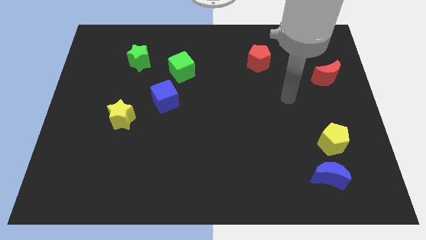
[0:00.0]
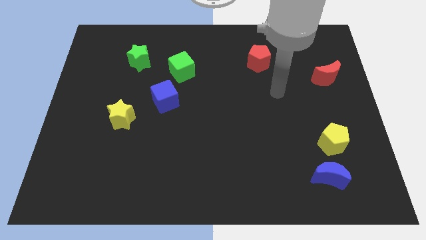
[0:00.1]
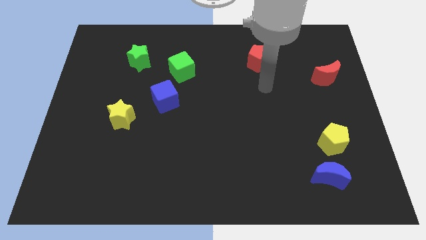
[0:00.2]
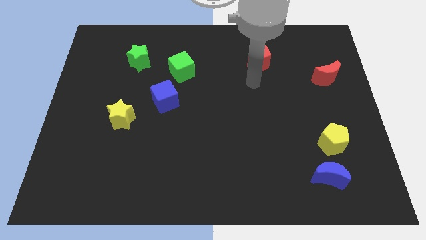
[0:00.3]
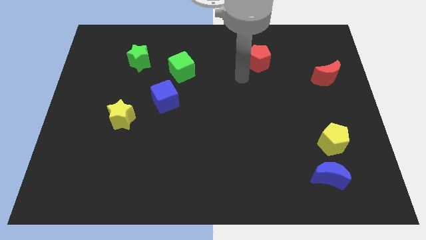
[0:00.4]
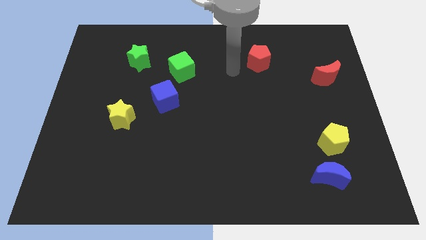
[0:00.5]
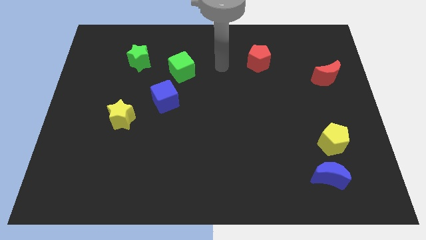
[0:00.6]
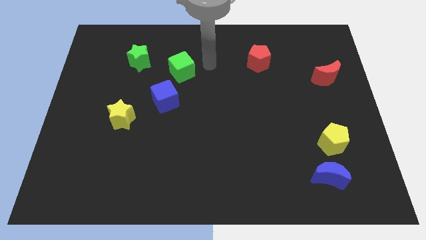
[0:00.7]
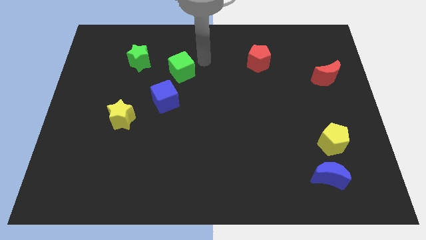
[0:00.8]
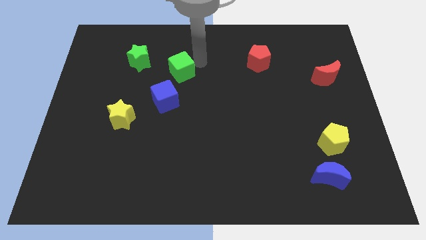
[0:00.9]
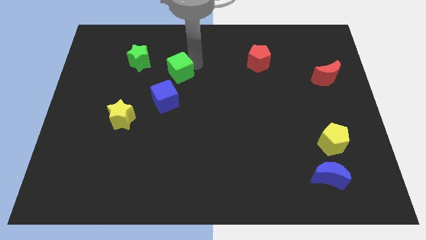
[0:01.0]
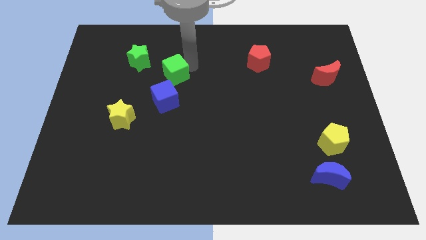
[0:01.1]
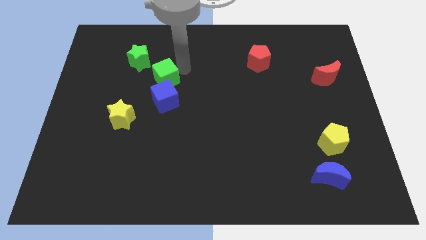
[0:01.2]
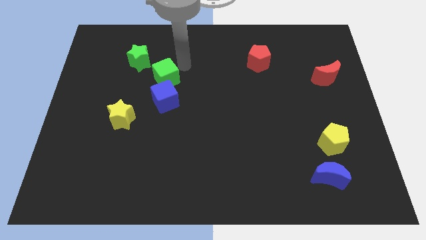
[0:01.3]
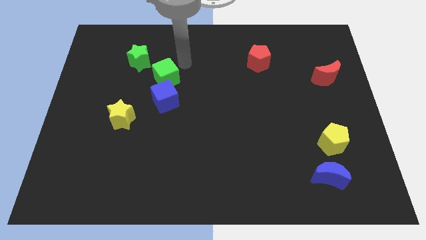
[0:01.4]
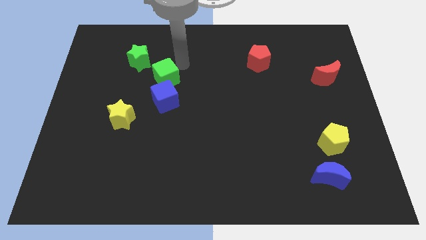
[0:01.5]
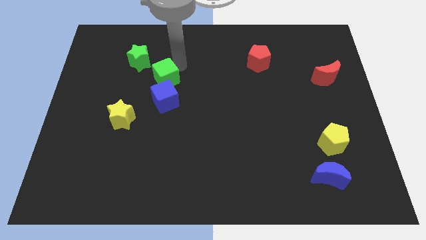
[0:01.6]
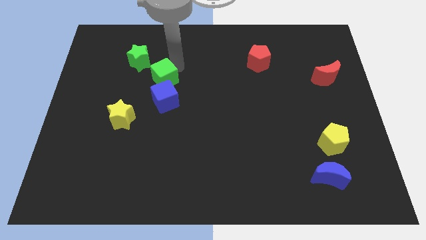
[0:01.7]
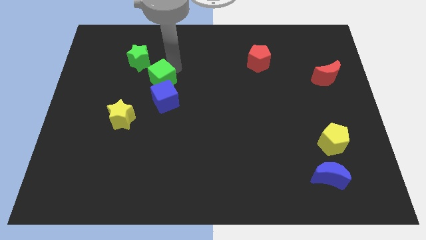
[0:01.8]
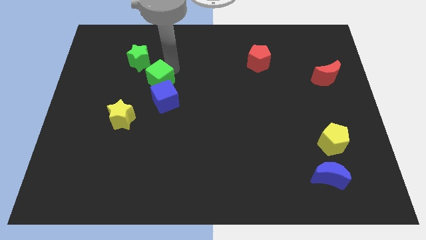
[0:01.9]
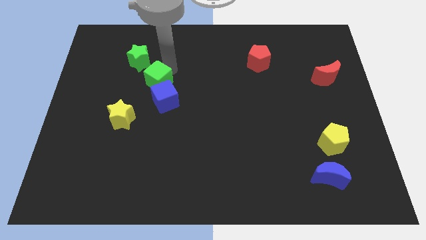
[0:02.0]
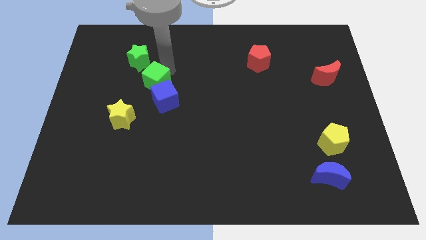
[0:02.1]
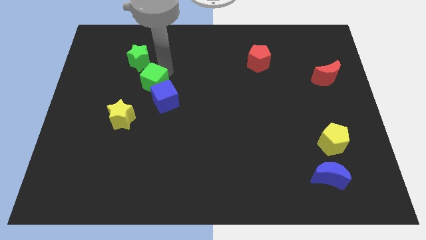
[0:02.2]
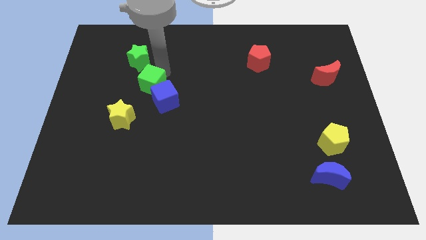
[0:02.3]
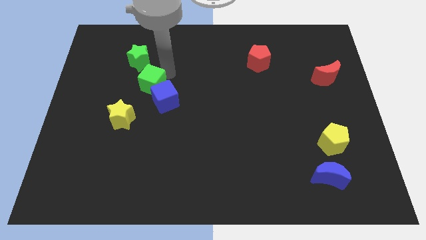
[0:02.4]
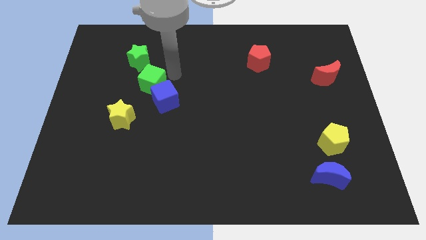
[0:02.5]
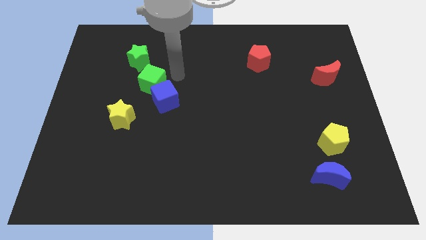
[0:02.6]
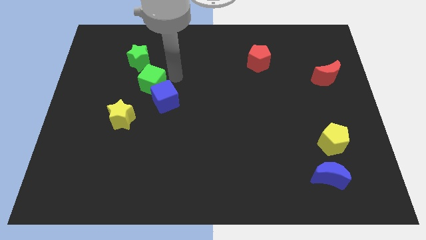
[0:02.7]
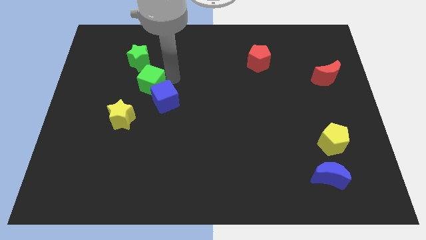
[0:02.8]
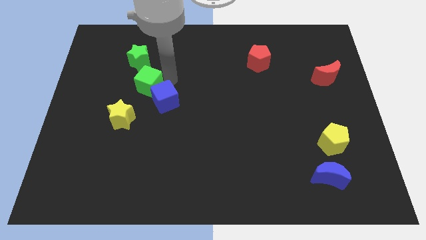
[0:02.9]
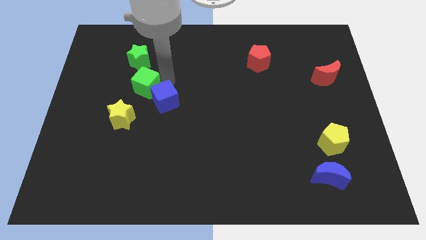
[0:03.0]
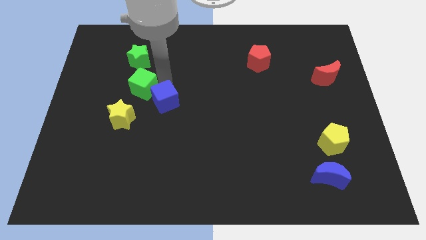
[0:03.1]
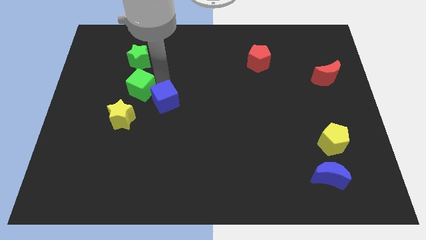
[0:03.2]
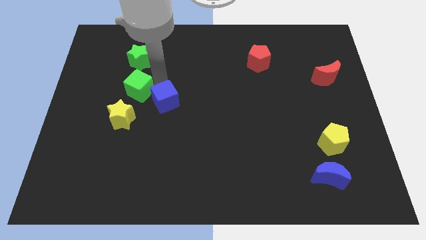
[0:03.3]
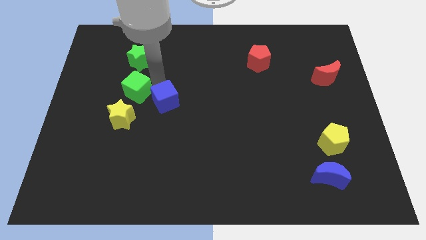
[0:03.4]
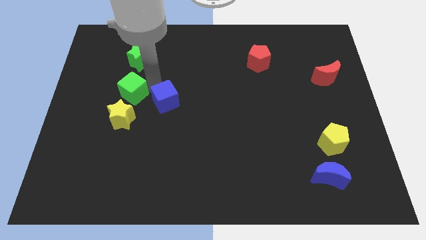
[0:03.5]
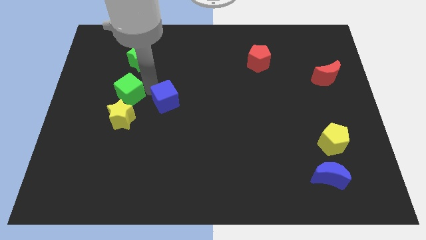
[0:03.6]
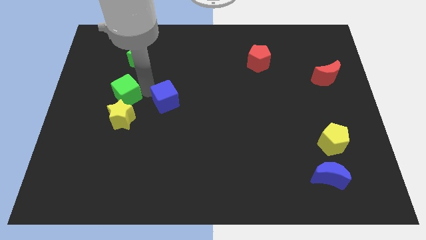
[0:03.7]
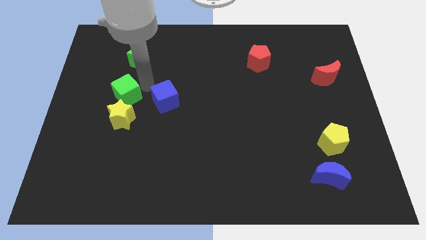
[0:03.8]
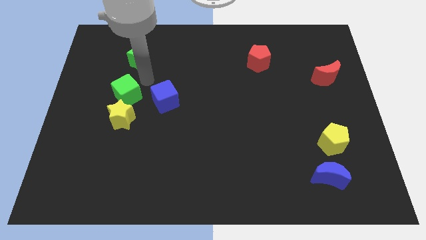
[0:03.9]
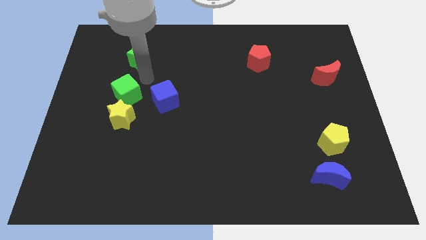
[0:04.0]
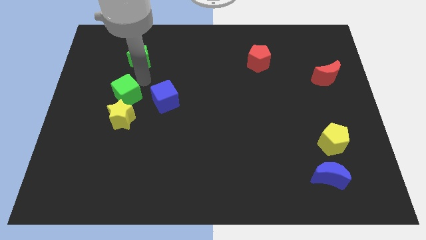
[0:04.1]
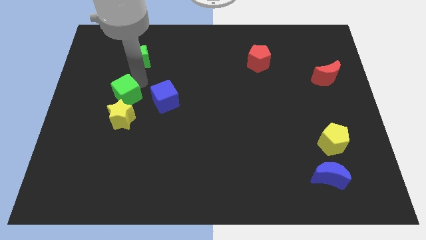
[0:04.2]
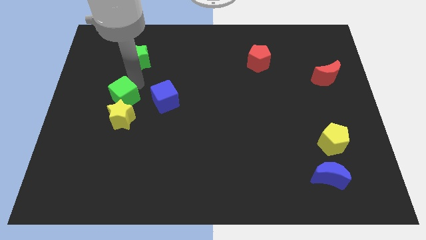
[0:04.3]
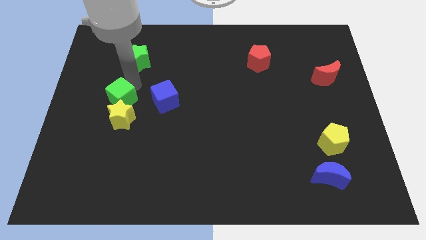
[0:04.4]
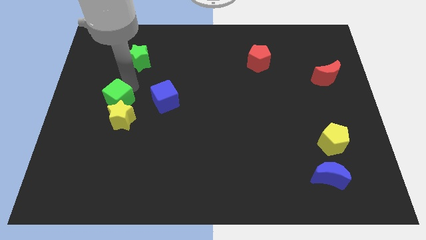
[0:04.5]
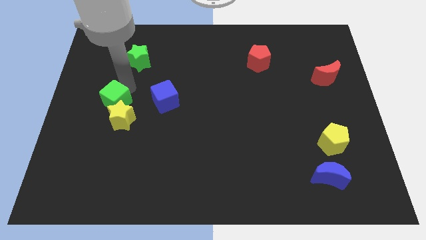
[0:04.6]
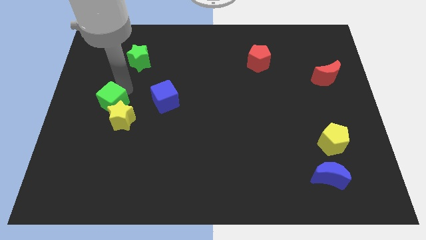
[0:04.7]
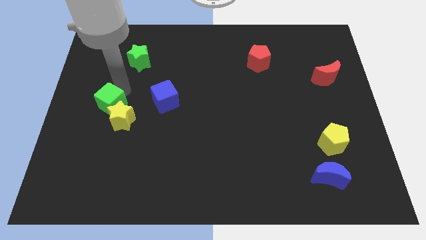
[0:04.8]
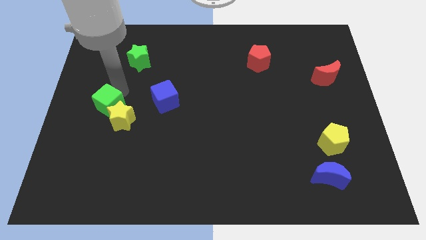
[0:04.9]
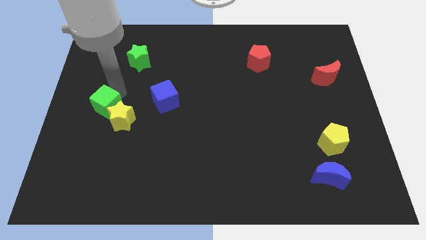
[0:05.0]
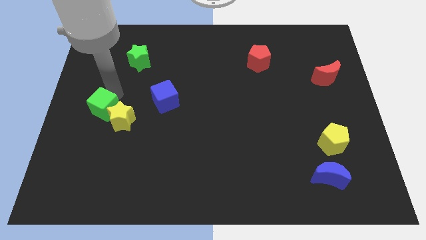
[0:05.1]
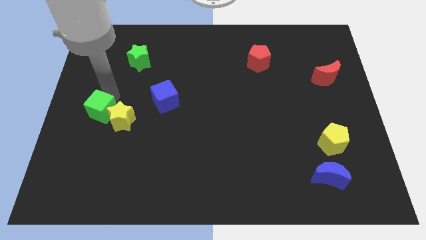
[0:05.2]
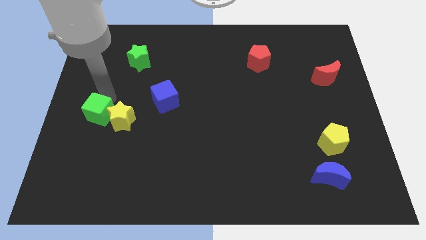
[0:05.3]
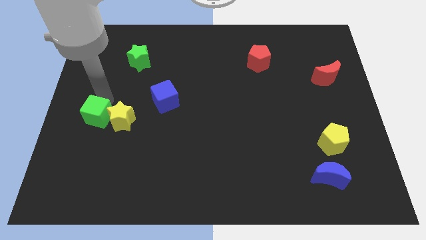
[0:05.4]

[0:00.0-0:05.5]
put the green cube to the bottom left of the yellow star

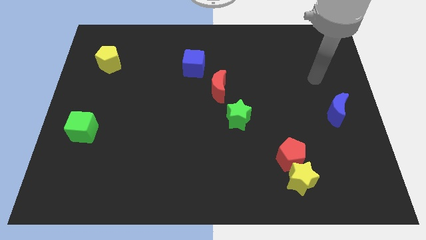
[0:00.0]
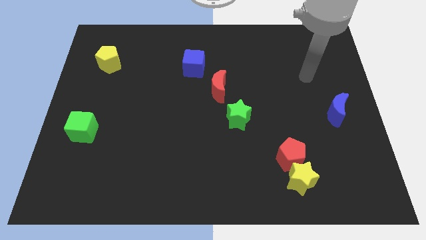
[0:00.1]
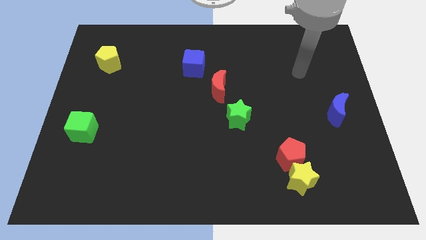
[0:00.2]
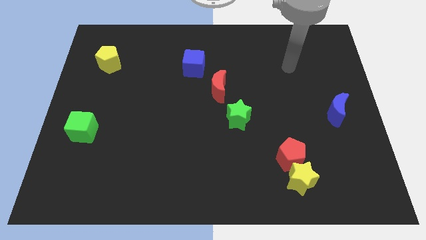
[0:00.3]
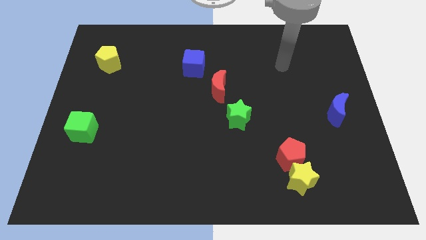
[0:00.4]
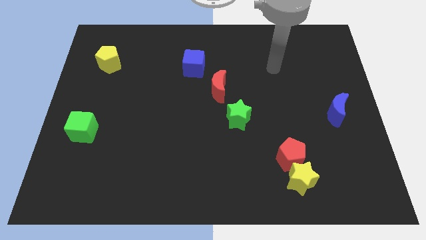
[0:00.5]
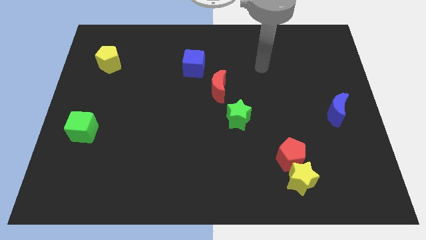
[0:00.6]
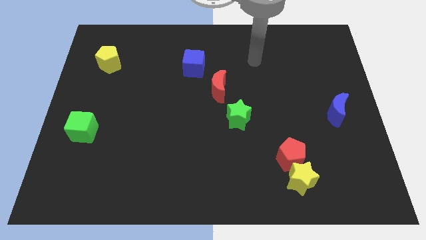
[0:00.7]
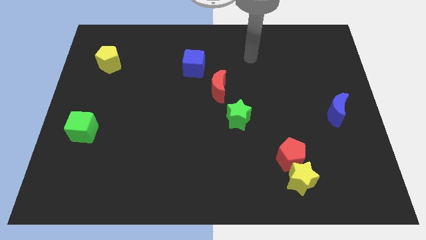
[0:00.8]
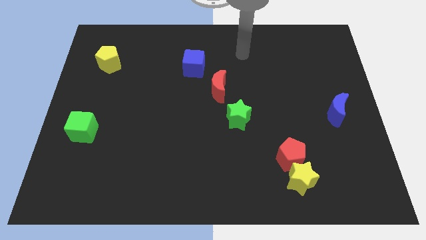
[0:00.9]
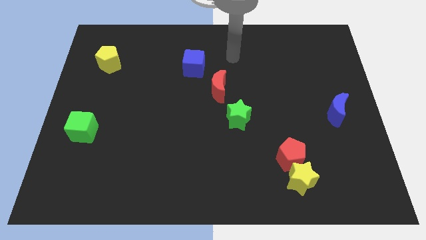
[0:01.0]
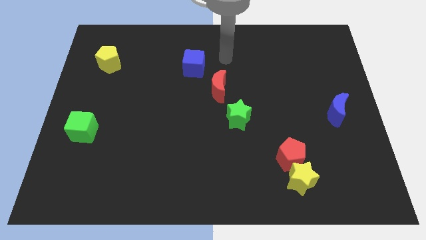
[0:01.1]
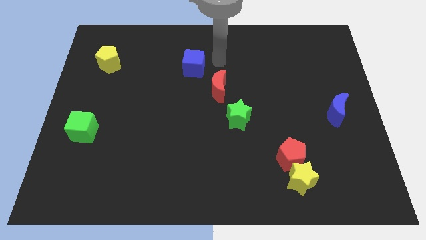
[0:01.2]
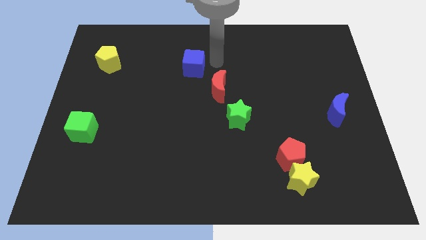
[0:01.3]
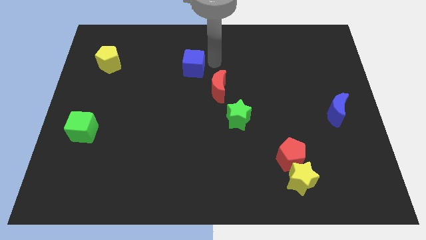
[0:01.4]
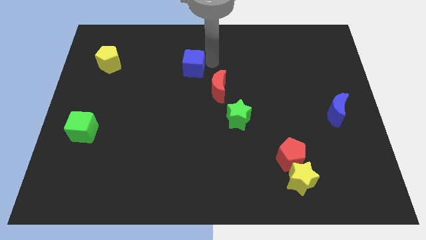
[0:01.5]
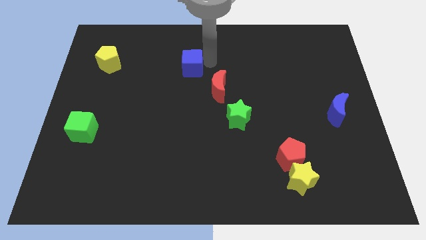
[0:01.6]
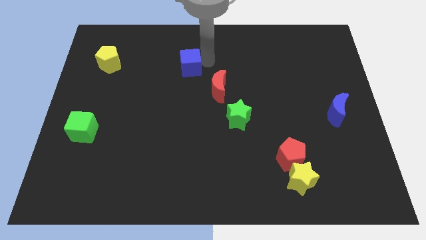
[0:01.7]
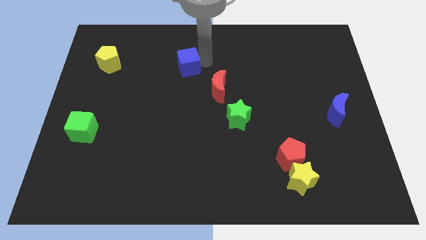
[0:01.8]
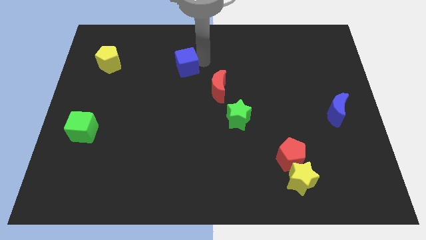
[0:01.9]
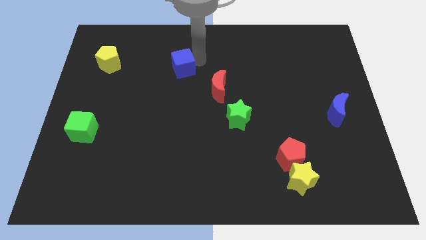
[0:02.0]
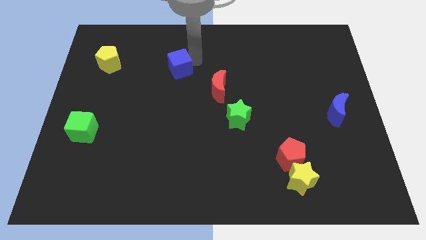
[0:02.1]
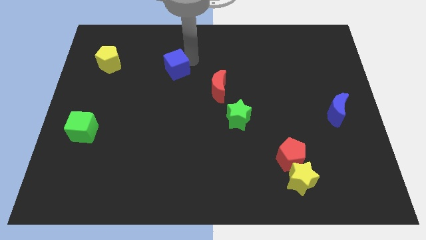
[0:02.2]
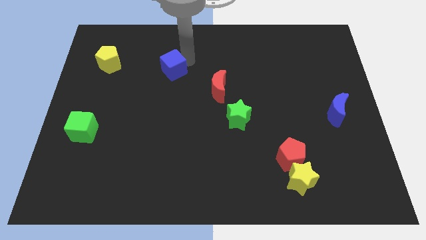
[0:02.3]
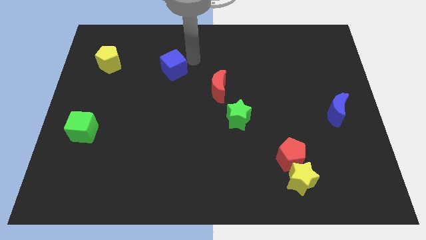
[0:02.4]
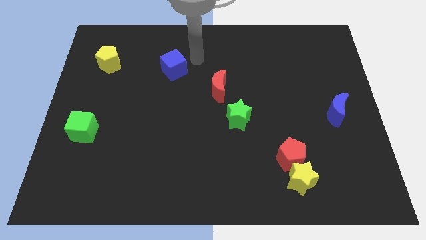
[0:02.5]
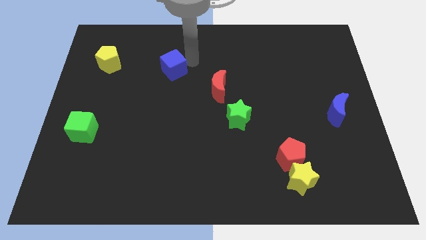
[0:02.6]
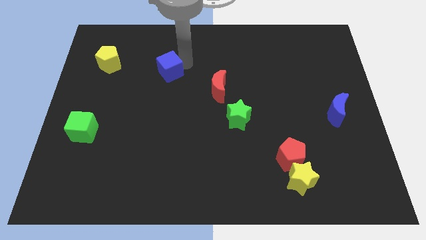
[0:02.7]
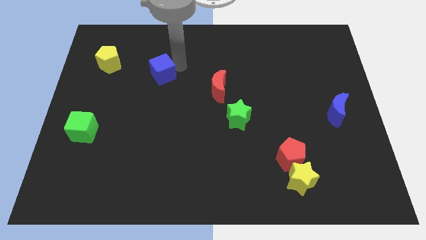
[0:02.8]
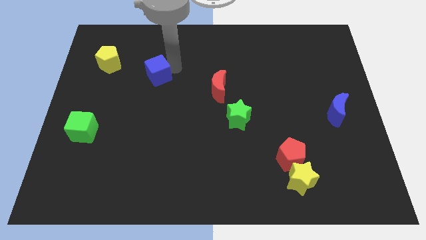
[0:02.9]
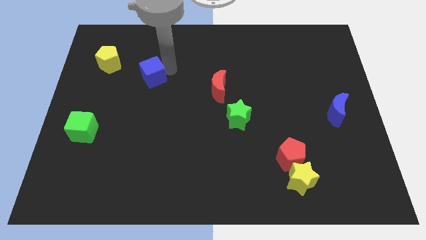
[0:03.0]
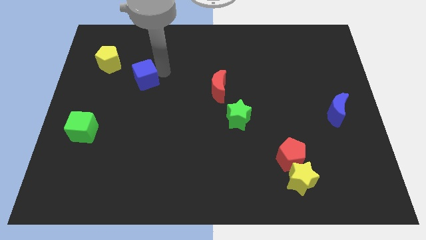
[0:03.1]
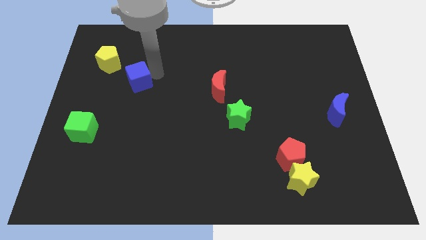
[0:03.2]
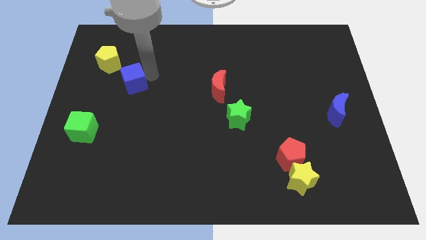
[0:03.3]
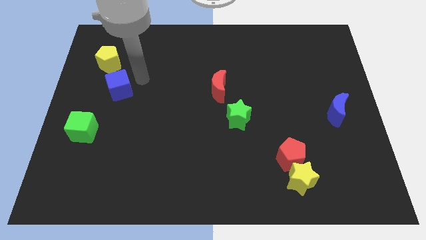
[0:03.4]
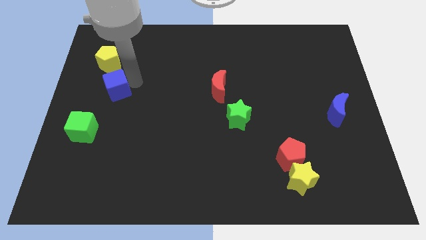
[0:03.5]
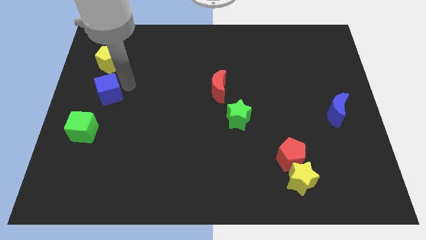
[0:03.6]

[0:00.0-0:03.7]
push the blue cube above the green cube
